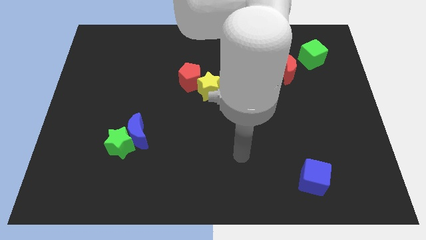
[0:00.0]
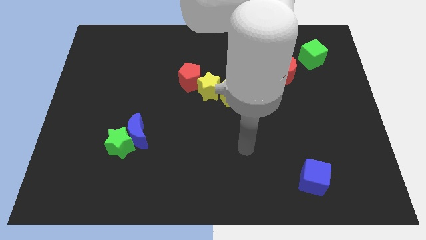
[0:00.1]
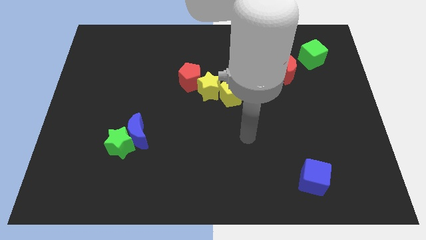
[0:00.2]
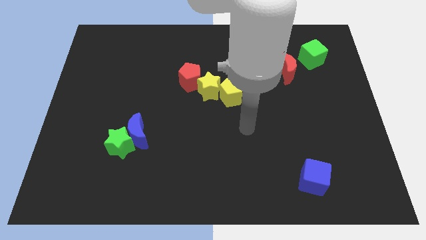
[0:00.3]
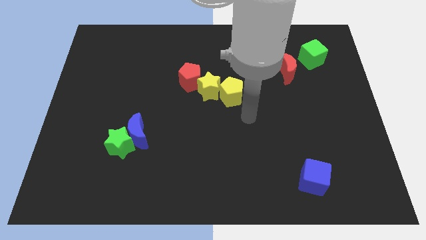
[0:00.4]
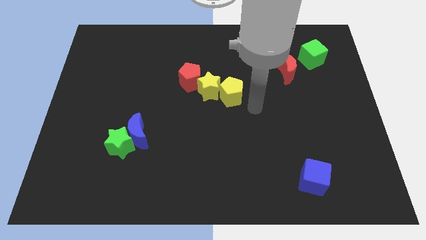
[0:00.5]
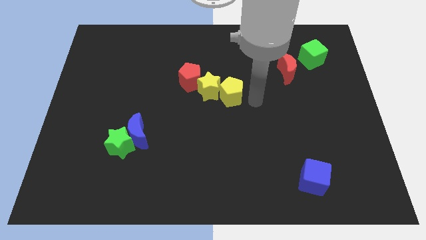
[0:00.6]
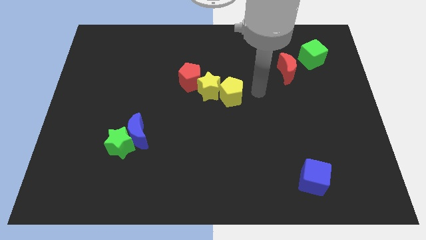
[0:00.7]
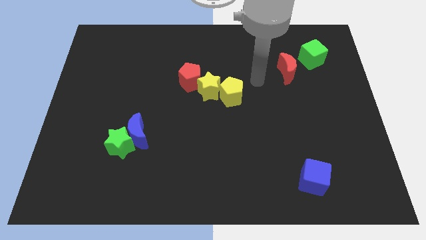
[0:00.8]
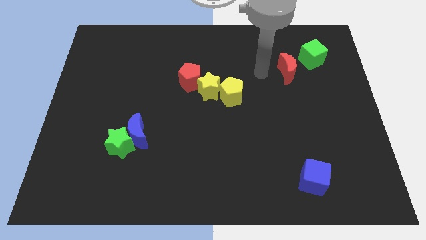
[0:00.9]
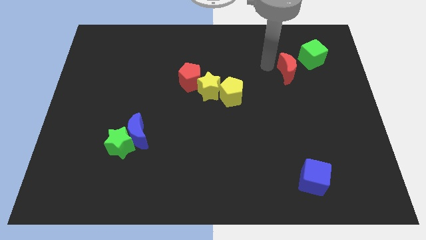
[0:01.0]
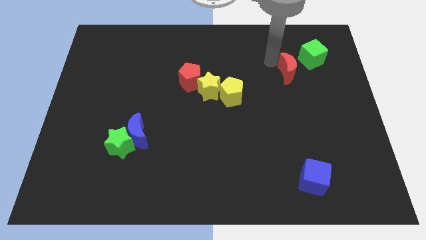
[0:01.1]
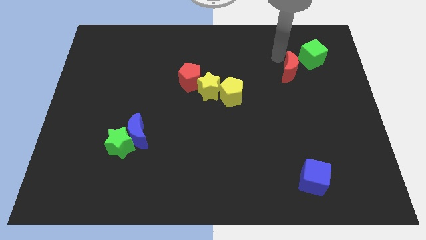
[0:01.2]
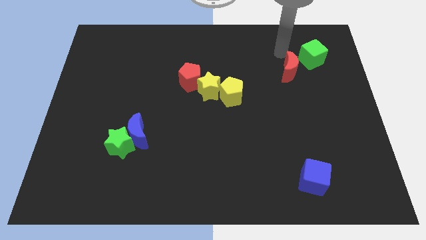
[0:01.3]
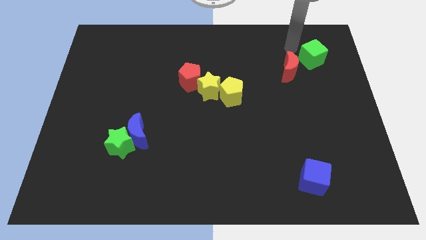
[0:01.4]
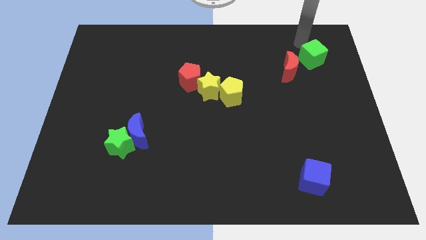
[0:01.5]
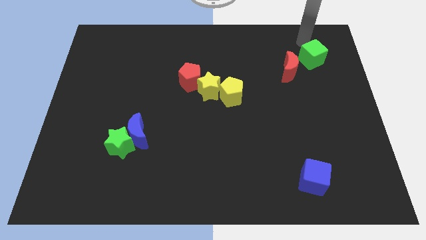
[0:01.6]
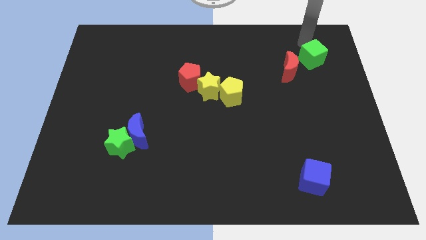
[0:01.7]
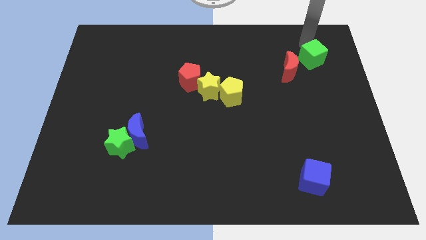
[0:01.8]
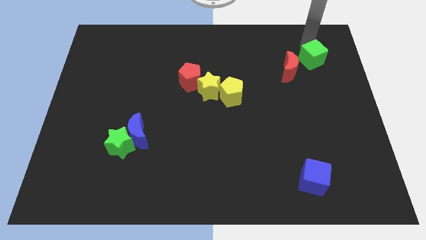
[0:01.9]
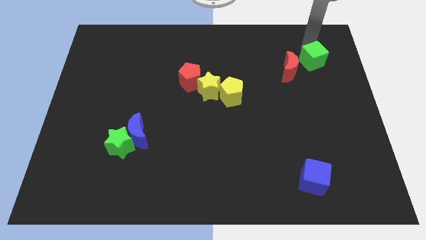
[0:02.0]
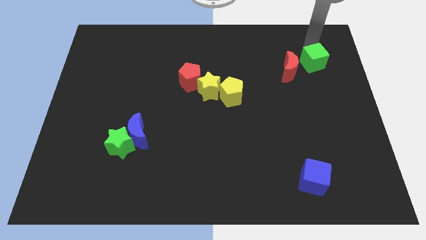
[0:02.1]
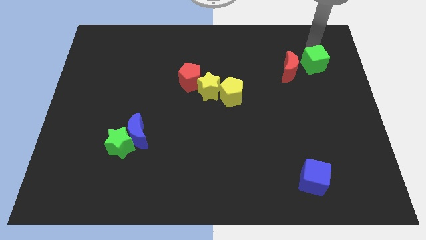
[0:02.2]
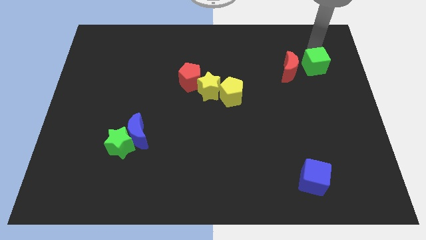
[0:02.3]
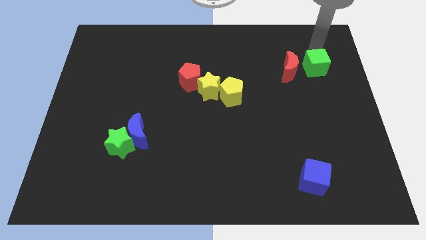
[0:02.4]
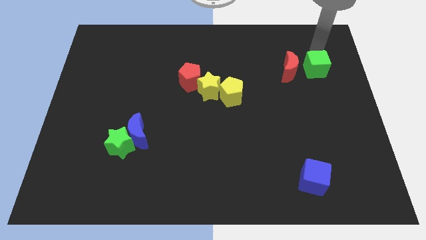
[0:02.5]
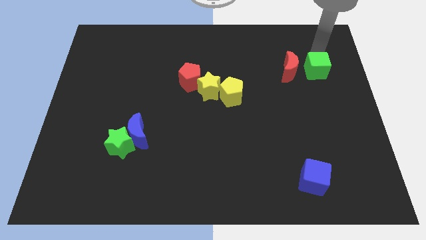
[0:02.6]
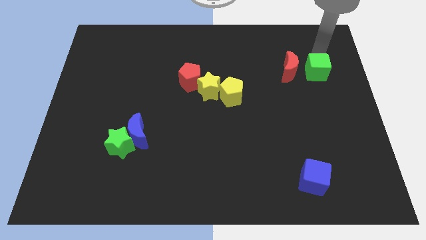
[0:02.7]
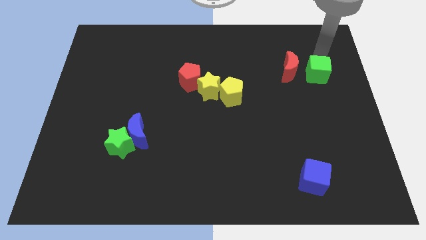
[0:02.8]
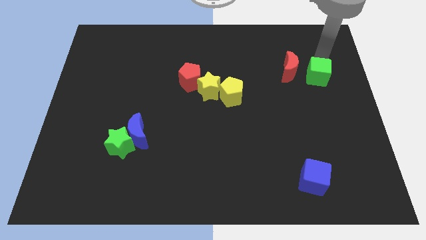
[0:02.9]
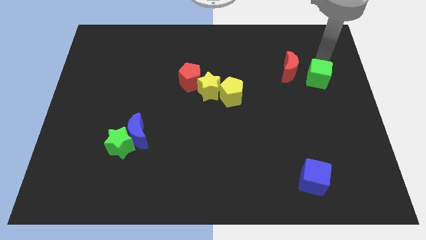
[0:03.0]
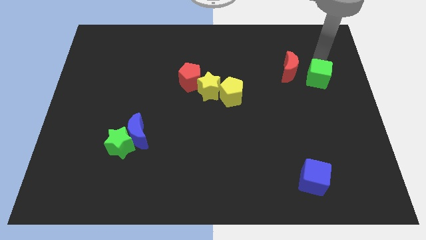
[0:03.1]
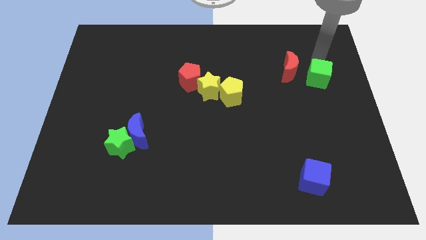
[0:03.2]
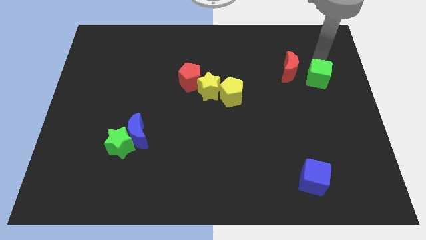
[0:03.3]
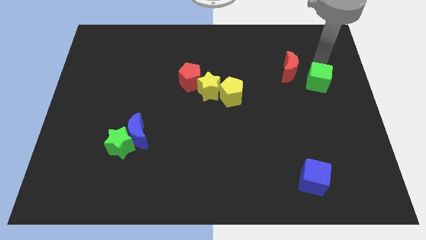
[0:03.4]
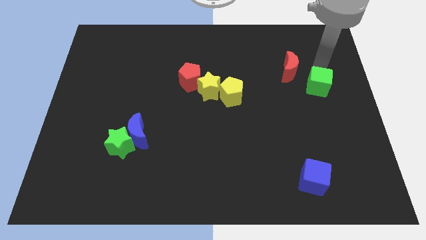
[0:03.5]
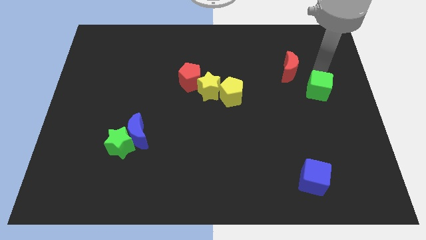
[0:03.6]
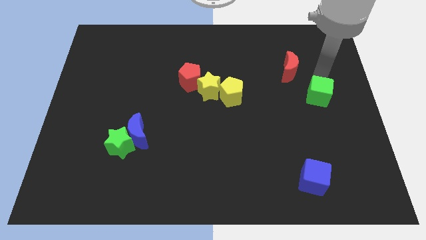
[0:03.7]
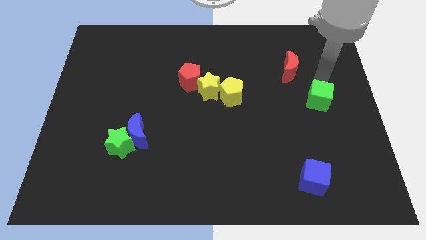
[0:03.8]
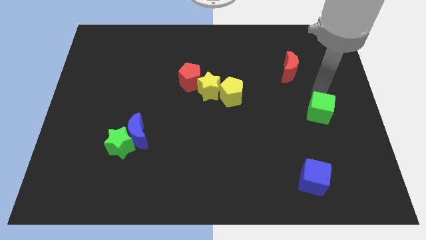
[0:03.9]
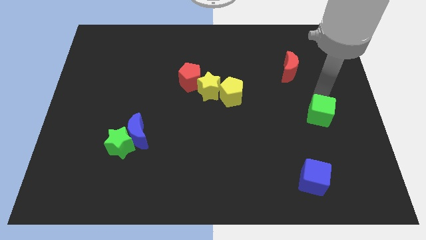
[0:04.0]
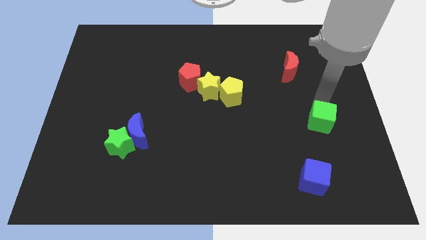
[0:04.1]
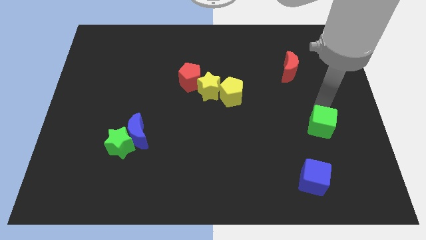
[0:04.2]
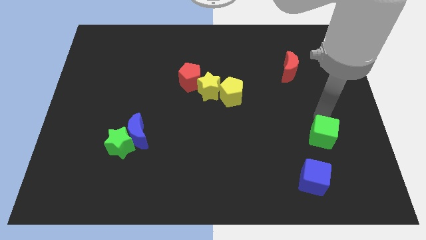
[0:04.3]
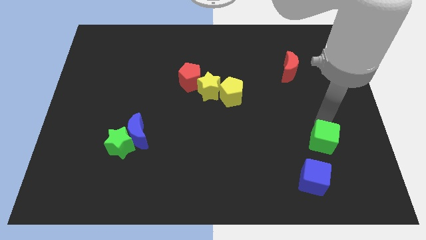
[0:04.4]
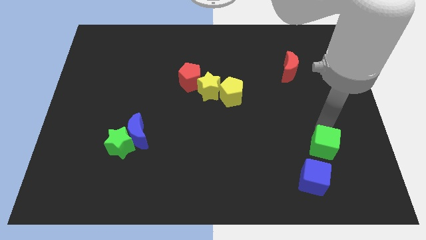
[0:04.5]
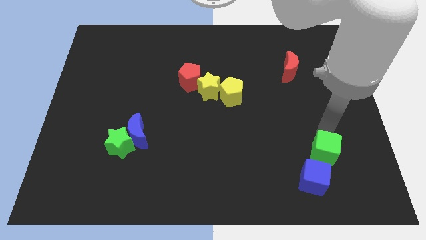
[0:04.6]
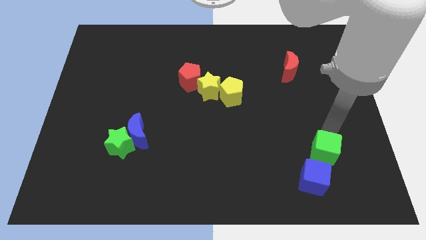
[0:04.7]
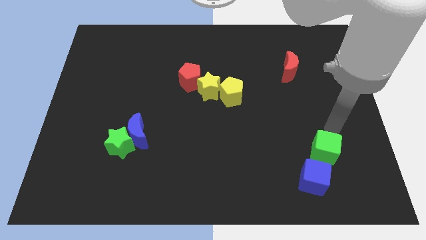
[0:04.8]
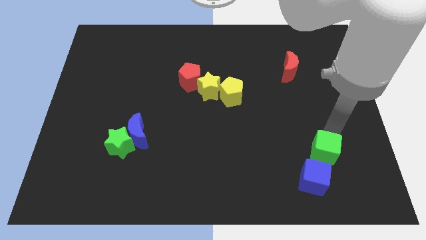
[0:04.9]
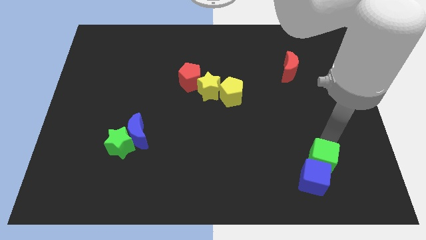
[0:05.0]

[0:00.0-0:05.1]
push the green cube towards the blue cube

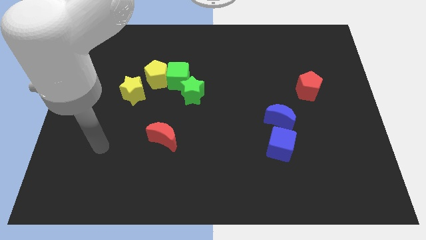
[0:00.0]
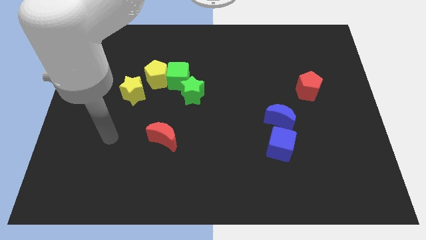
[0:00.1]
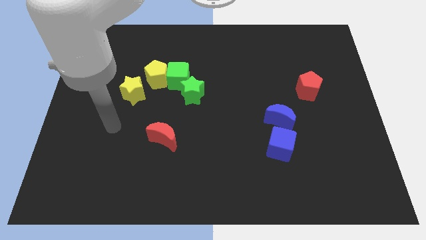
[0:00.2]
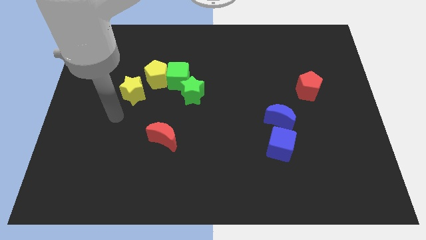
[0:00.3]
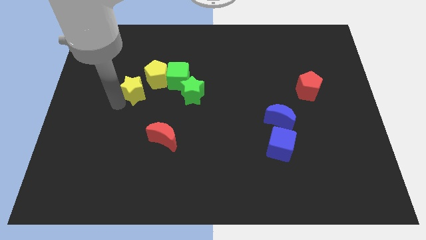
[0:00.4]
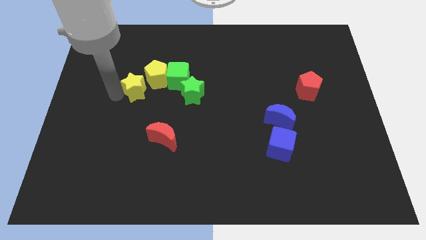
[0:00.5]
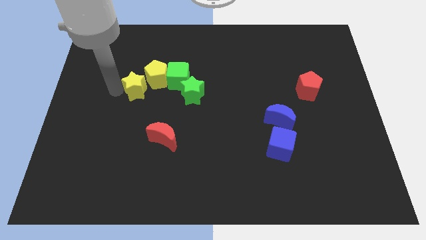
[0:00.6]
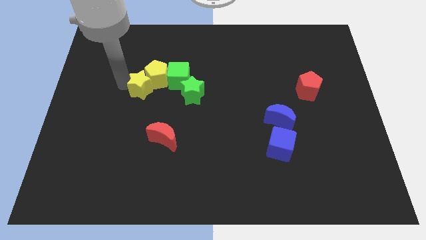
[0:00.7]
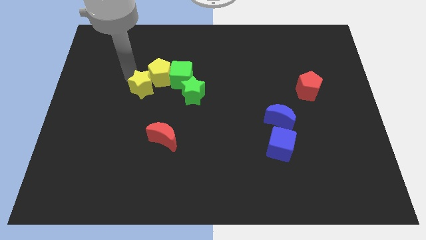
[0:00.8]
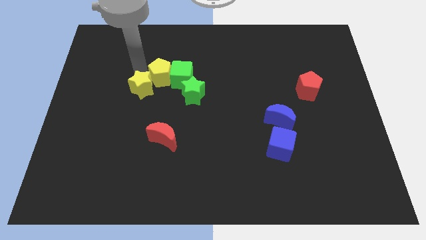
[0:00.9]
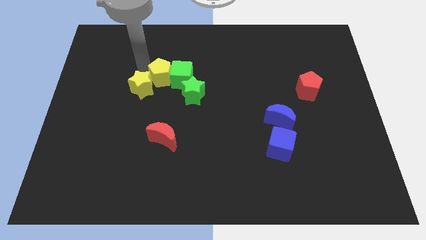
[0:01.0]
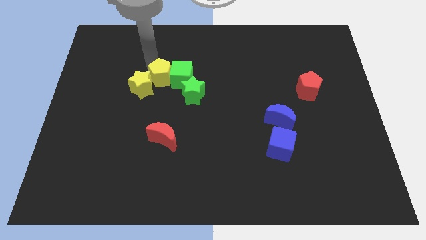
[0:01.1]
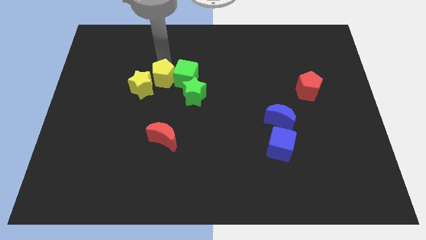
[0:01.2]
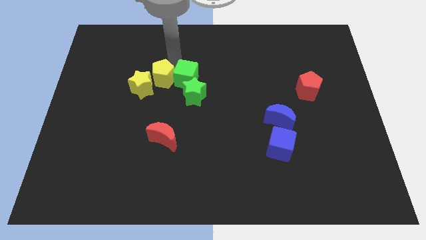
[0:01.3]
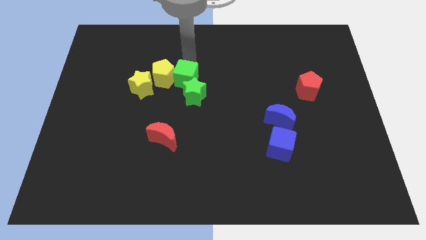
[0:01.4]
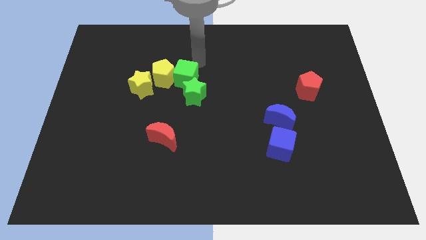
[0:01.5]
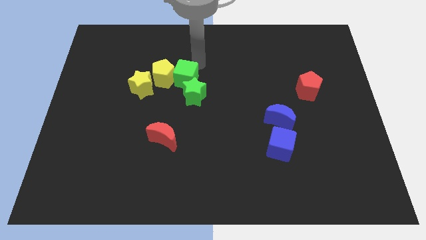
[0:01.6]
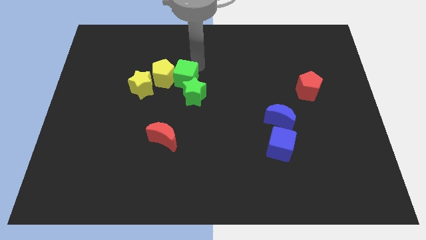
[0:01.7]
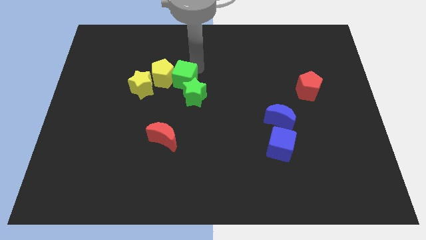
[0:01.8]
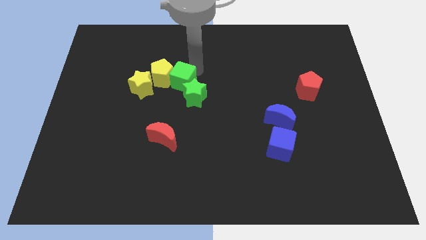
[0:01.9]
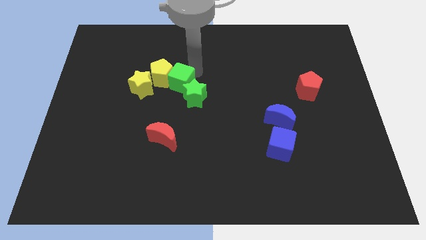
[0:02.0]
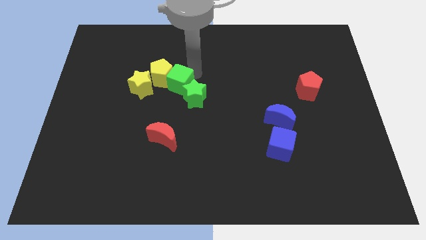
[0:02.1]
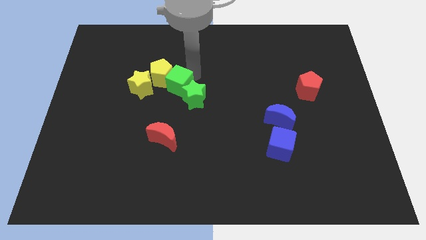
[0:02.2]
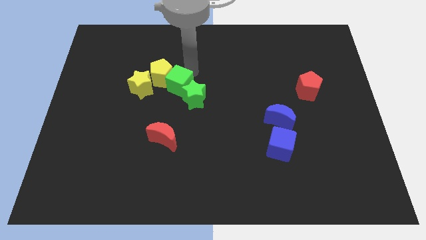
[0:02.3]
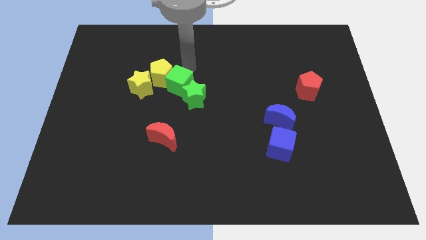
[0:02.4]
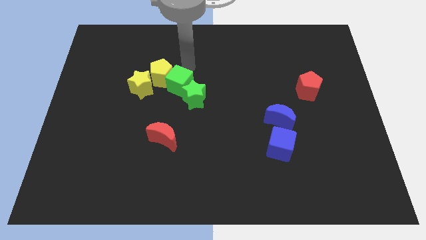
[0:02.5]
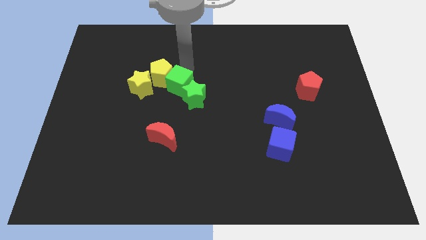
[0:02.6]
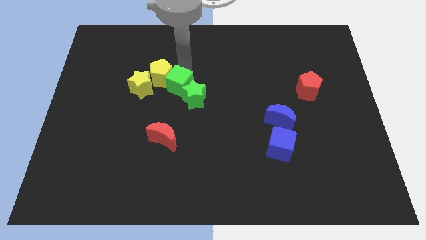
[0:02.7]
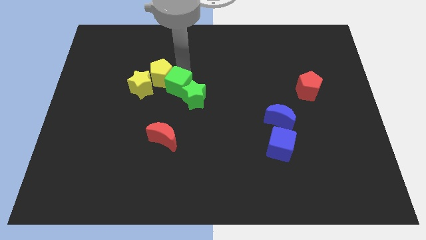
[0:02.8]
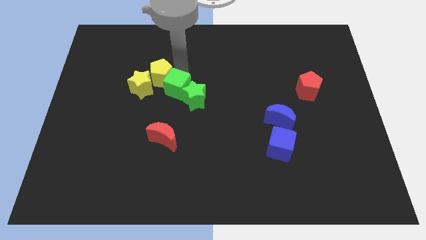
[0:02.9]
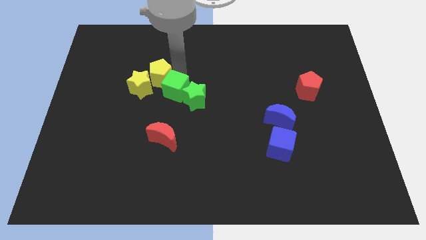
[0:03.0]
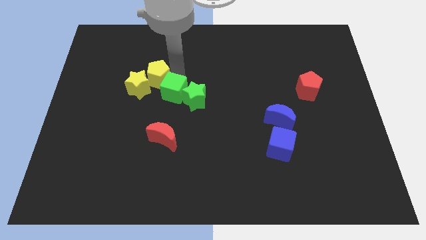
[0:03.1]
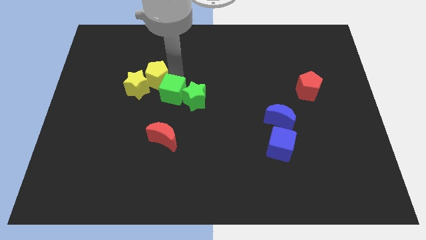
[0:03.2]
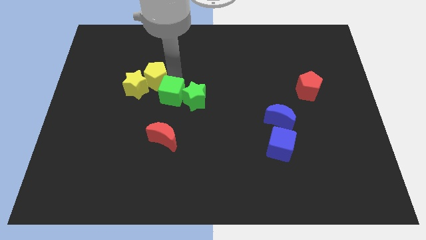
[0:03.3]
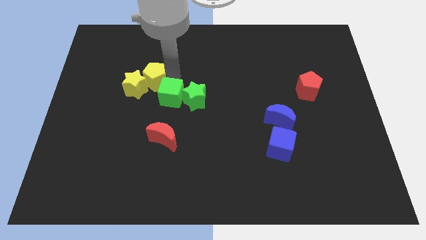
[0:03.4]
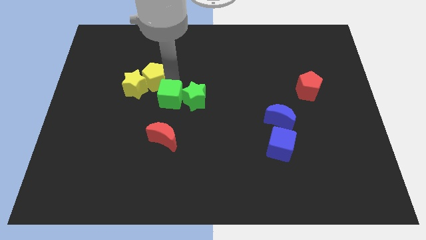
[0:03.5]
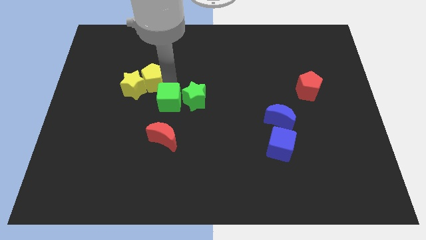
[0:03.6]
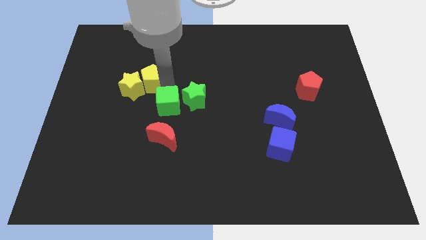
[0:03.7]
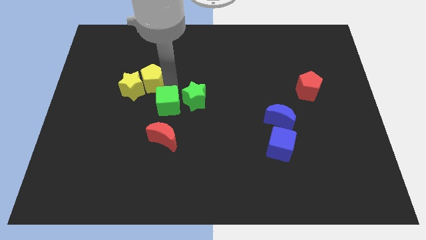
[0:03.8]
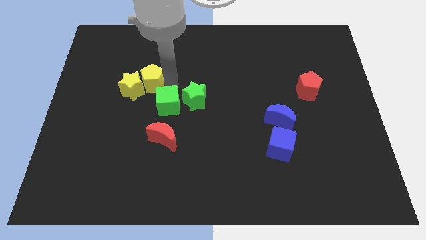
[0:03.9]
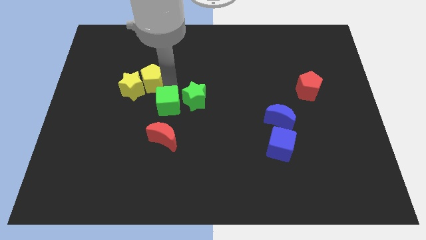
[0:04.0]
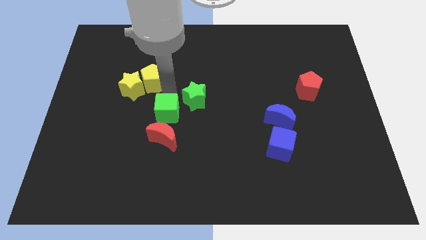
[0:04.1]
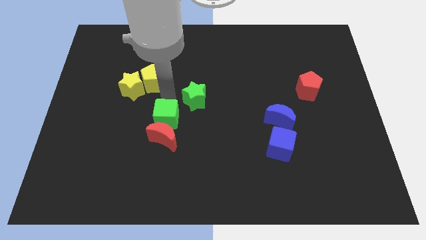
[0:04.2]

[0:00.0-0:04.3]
slide the green cube close to the red moon
